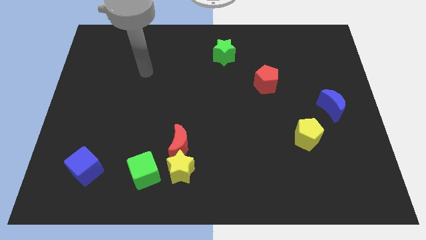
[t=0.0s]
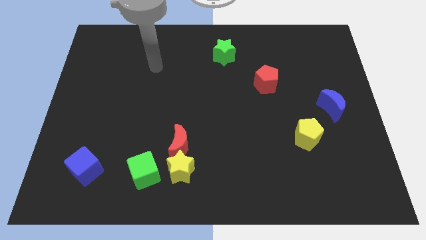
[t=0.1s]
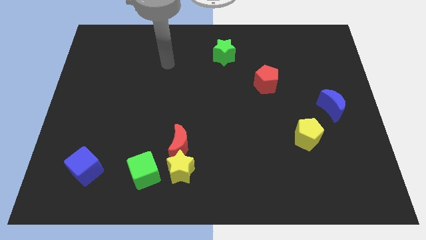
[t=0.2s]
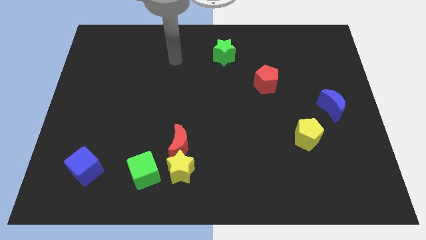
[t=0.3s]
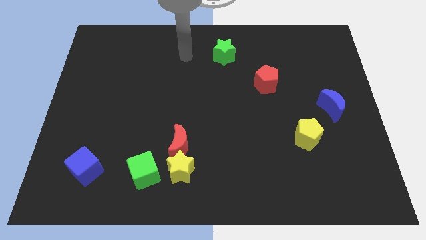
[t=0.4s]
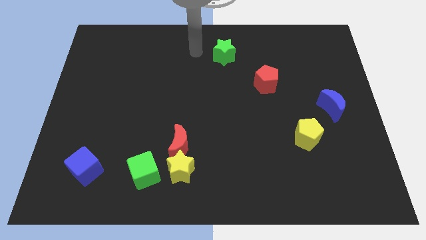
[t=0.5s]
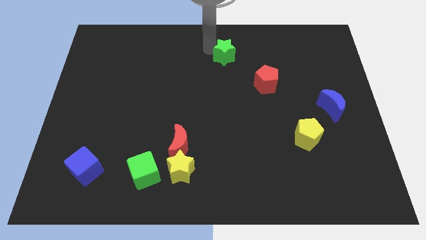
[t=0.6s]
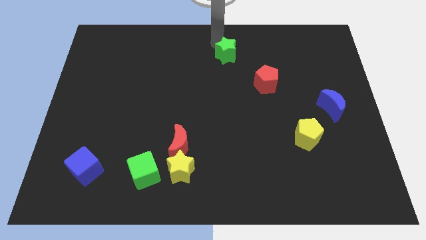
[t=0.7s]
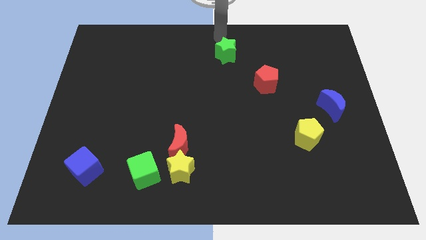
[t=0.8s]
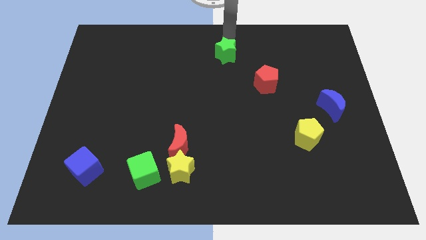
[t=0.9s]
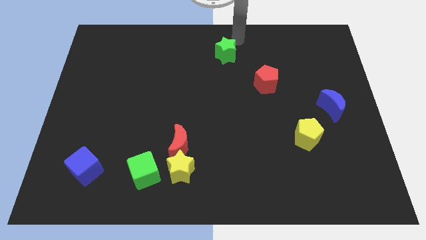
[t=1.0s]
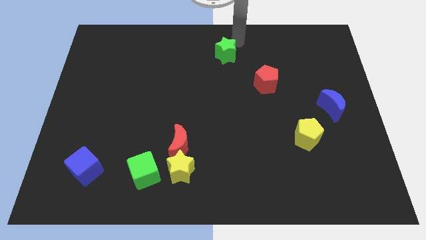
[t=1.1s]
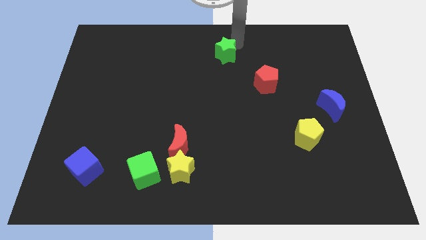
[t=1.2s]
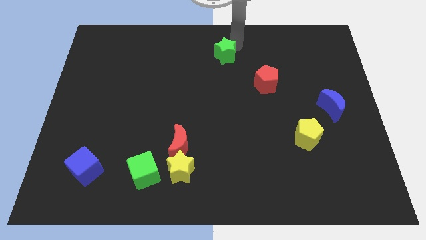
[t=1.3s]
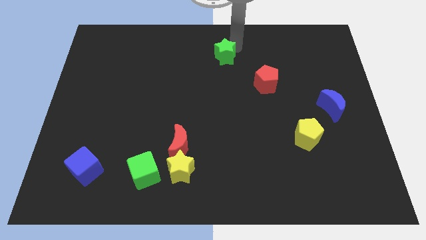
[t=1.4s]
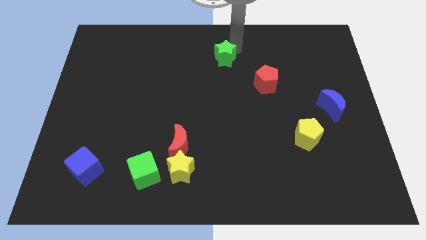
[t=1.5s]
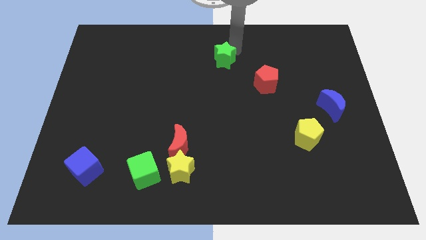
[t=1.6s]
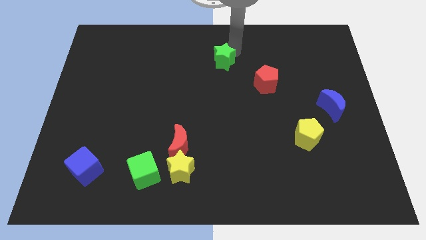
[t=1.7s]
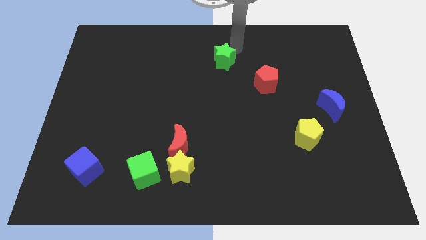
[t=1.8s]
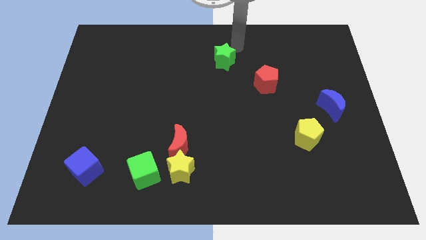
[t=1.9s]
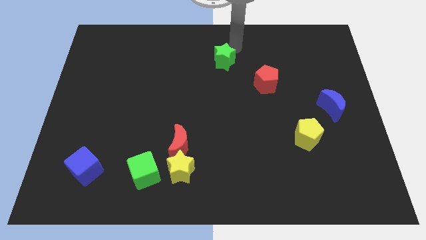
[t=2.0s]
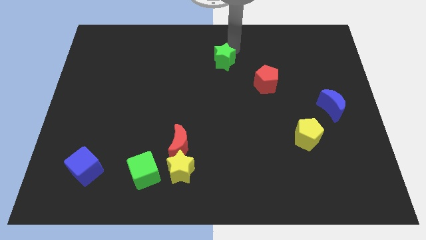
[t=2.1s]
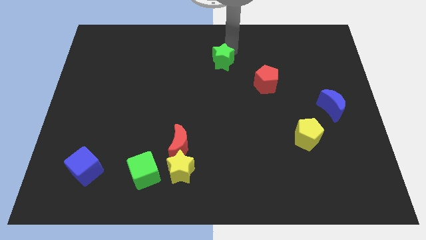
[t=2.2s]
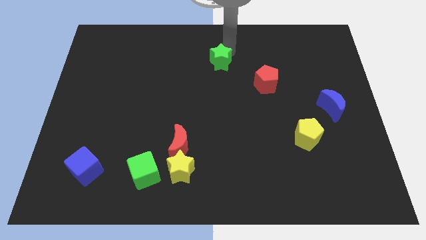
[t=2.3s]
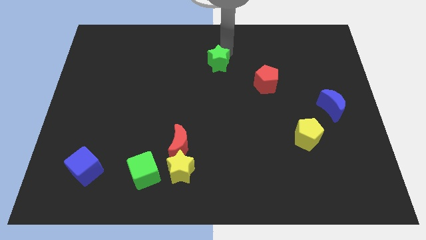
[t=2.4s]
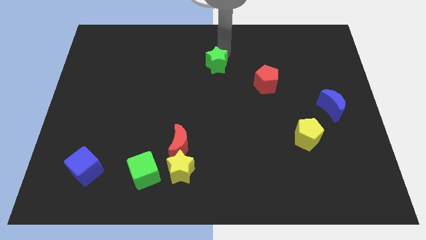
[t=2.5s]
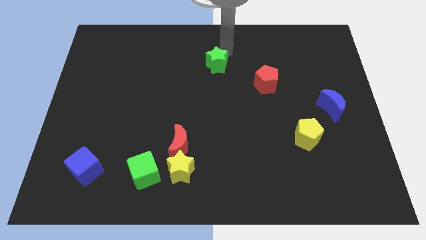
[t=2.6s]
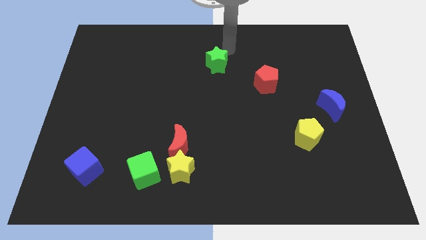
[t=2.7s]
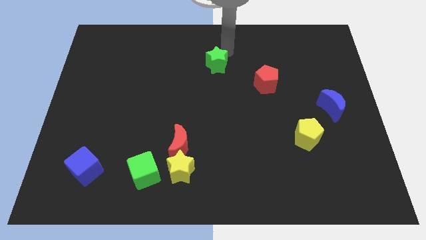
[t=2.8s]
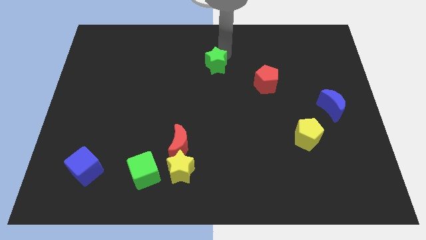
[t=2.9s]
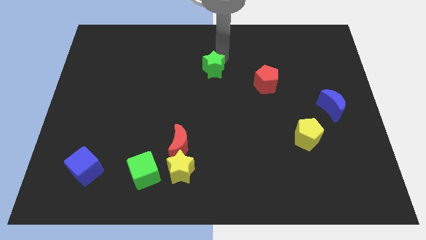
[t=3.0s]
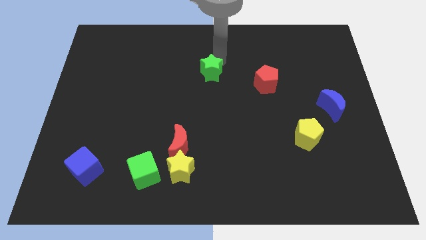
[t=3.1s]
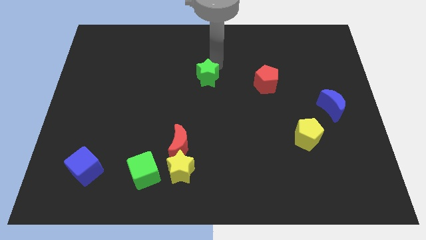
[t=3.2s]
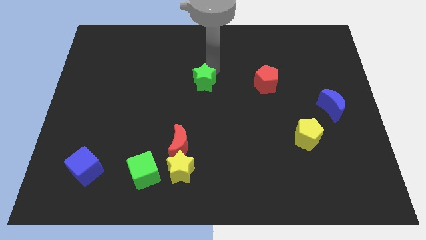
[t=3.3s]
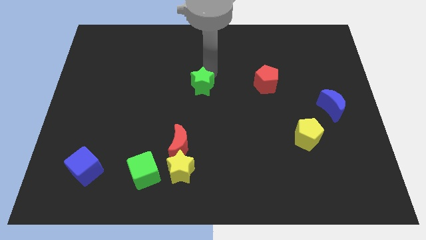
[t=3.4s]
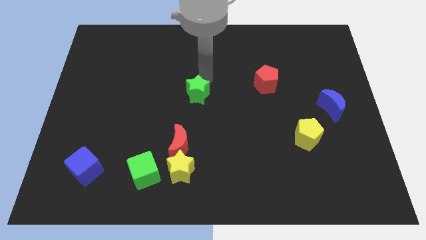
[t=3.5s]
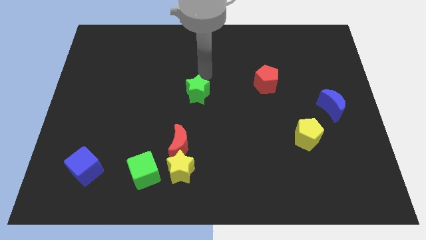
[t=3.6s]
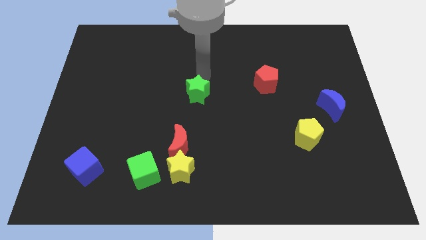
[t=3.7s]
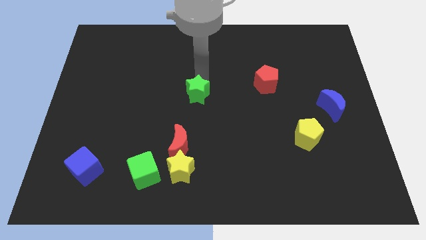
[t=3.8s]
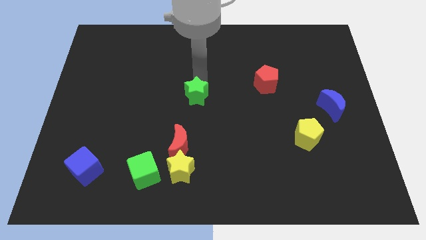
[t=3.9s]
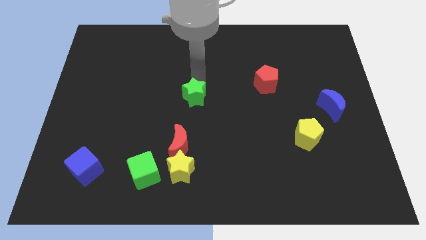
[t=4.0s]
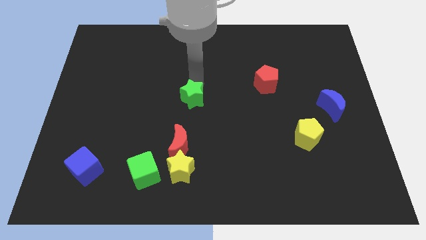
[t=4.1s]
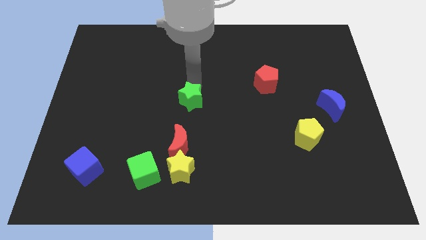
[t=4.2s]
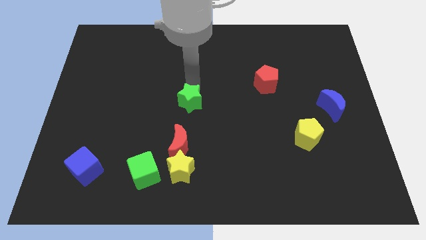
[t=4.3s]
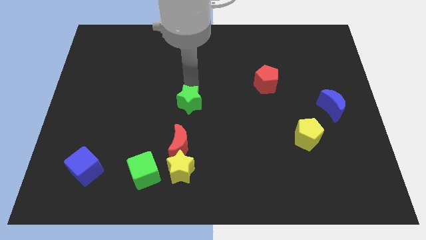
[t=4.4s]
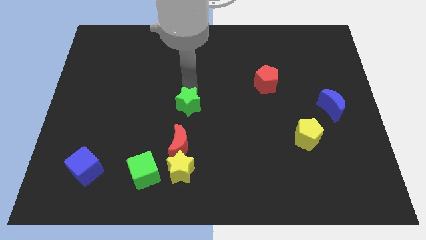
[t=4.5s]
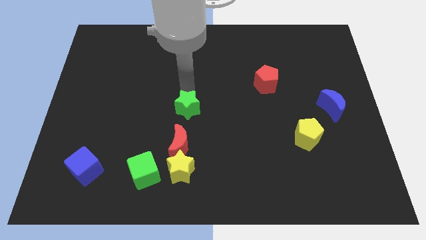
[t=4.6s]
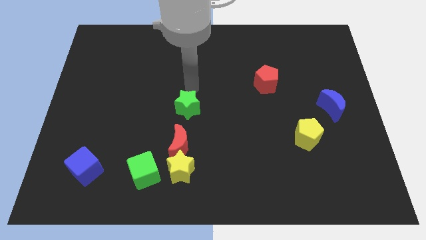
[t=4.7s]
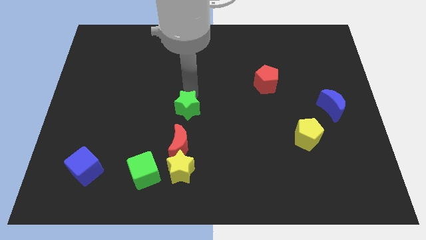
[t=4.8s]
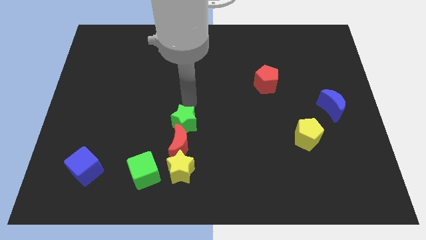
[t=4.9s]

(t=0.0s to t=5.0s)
put the green star to the red moon

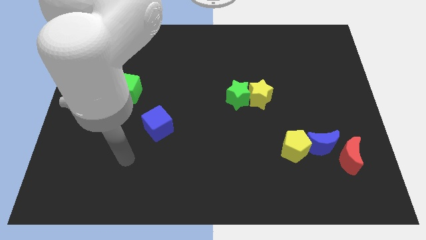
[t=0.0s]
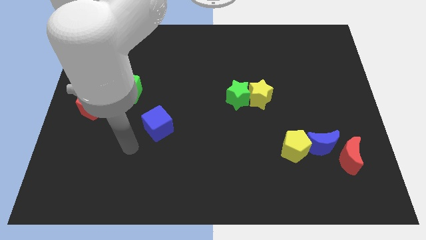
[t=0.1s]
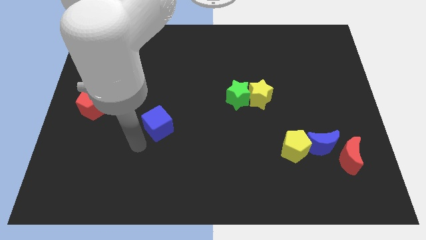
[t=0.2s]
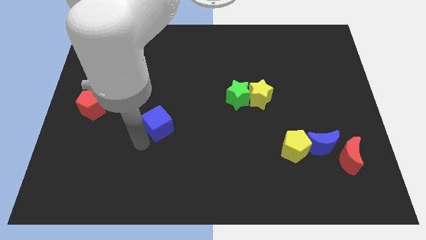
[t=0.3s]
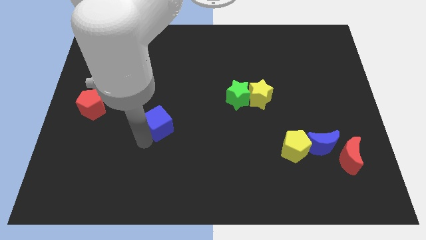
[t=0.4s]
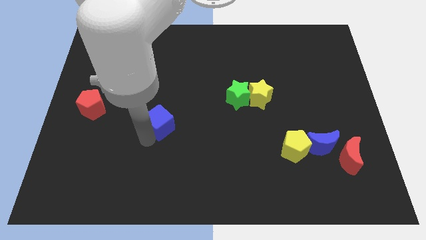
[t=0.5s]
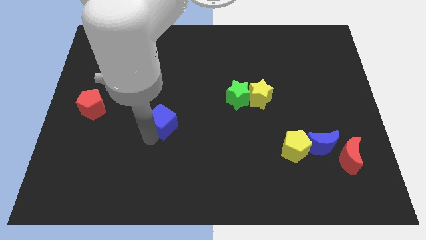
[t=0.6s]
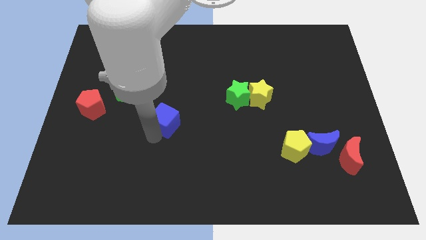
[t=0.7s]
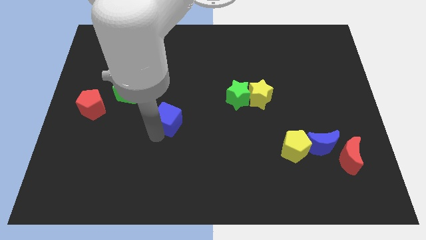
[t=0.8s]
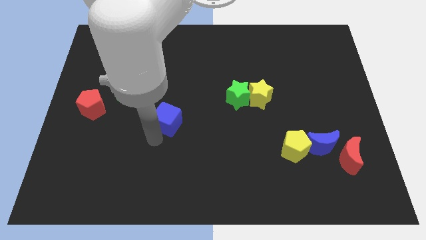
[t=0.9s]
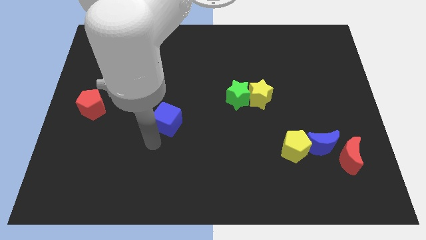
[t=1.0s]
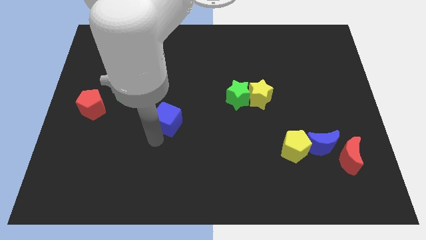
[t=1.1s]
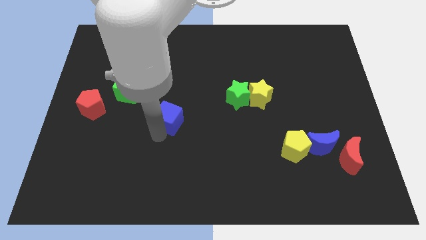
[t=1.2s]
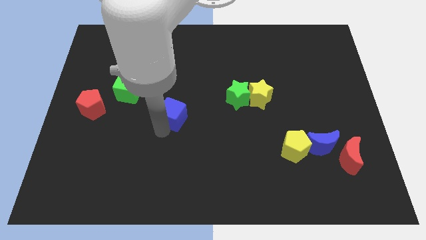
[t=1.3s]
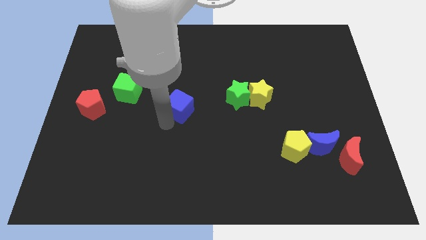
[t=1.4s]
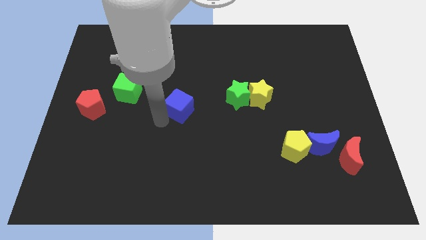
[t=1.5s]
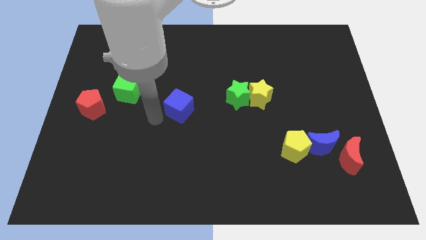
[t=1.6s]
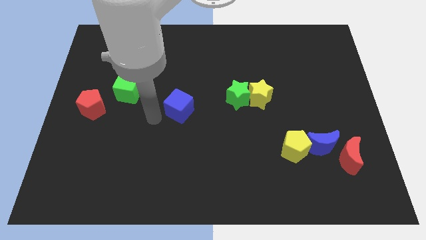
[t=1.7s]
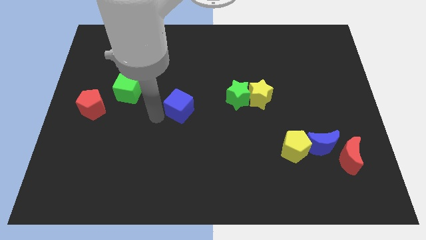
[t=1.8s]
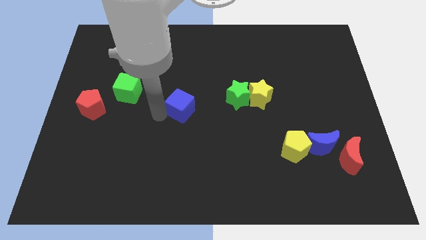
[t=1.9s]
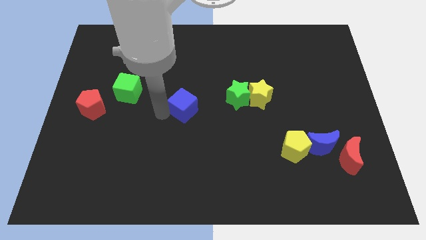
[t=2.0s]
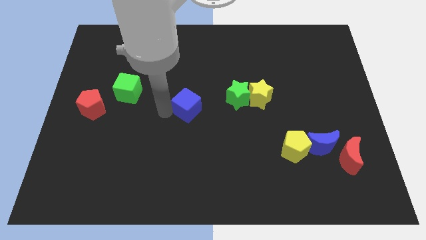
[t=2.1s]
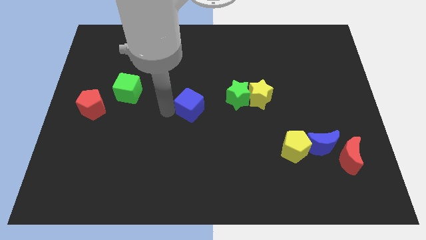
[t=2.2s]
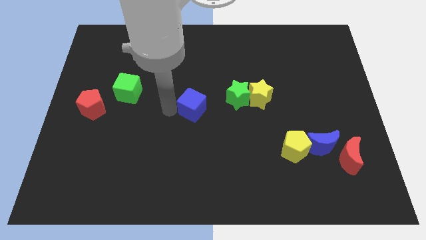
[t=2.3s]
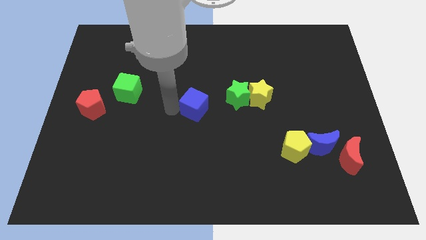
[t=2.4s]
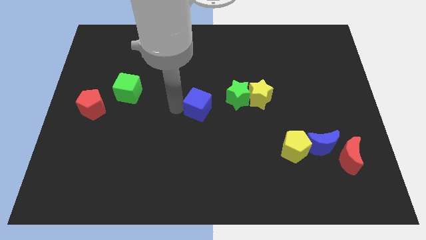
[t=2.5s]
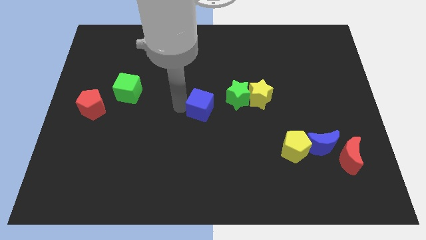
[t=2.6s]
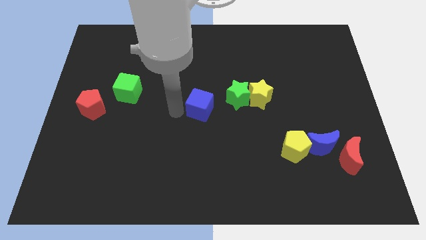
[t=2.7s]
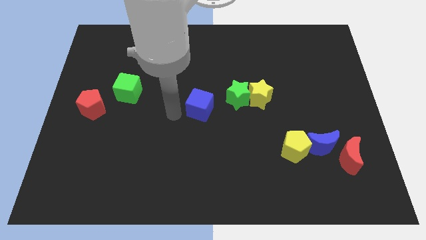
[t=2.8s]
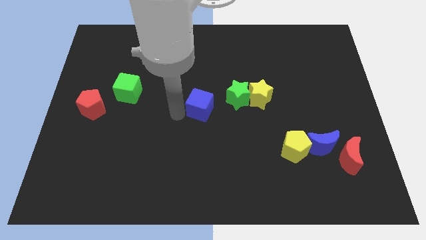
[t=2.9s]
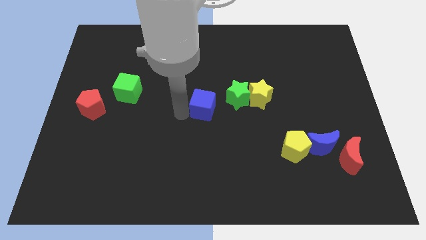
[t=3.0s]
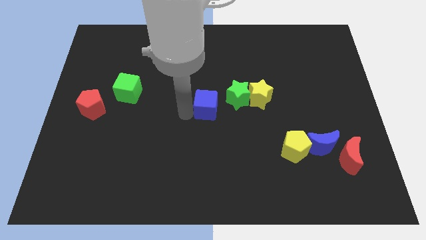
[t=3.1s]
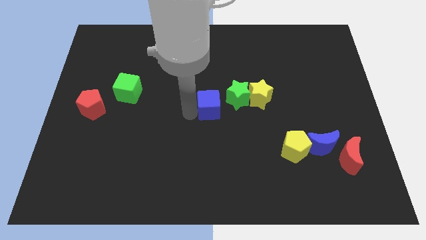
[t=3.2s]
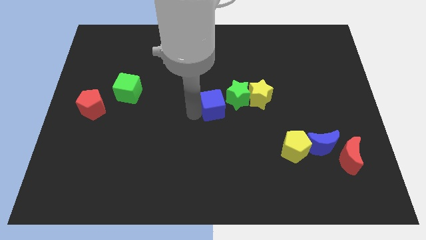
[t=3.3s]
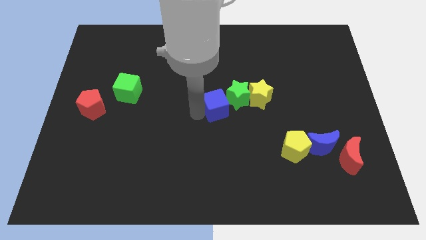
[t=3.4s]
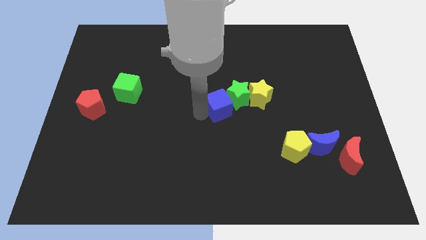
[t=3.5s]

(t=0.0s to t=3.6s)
move the blue cube next to the green star
